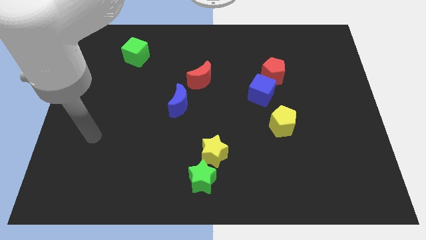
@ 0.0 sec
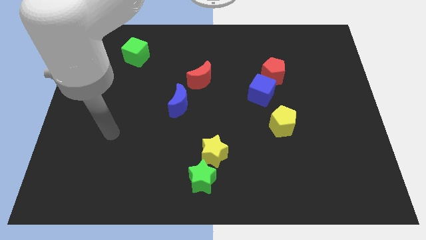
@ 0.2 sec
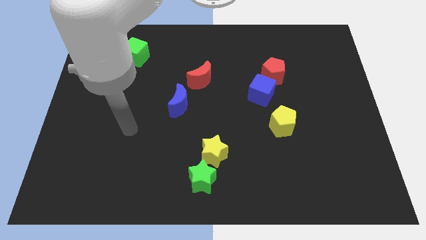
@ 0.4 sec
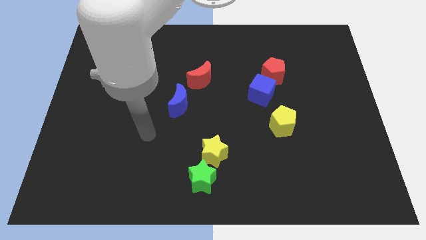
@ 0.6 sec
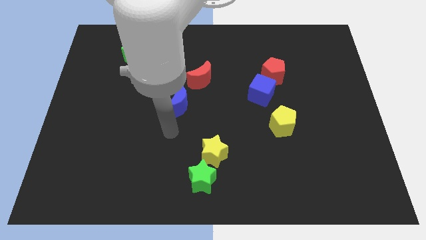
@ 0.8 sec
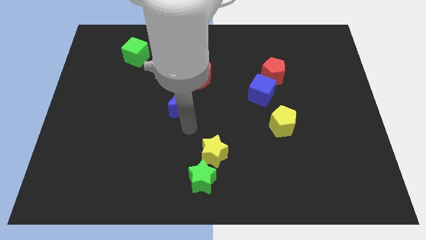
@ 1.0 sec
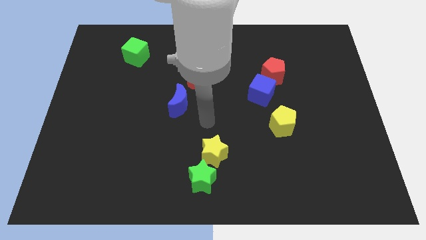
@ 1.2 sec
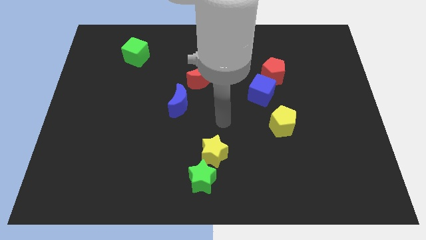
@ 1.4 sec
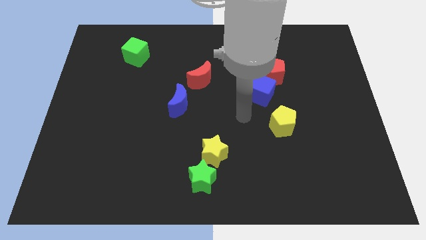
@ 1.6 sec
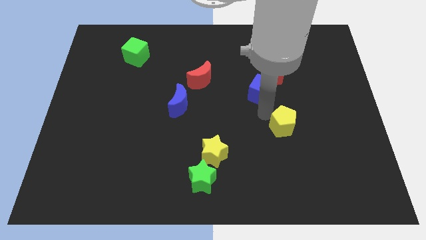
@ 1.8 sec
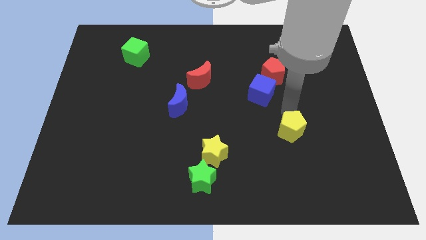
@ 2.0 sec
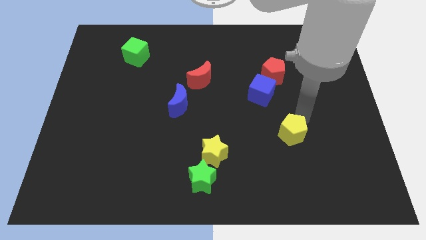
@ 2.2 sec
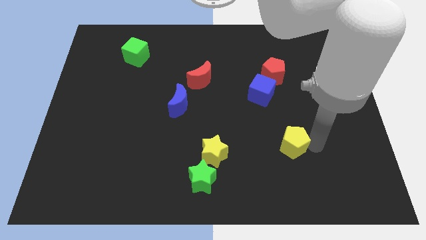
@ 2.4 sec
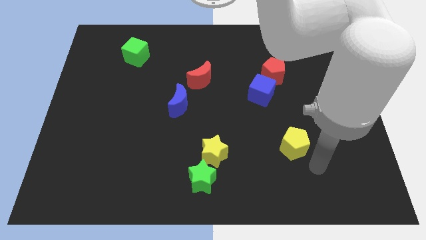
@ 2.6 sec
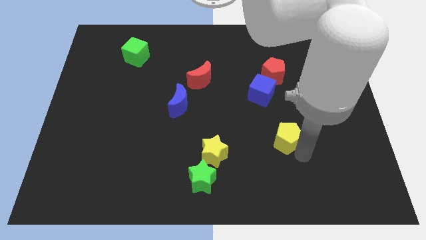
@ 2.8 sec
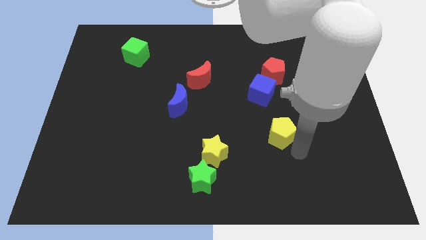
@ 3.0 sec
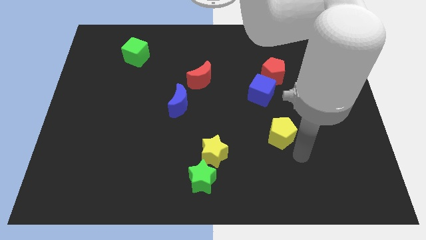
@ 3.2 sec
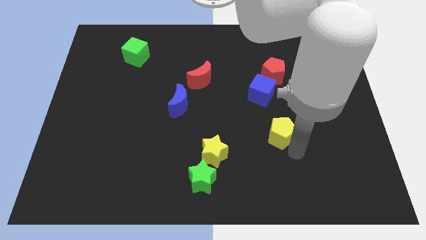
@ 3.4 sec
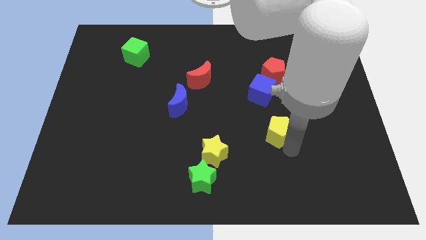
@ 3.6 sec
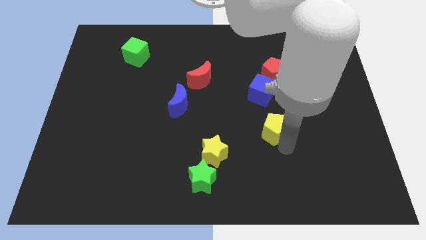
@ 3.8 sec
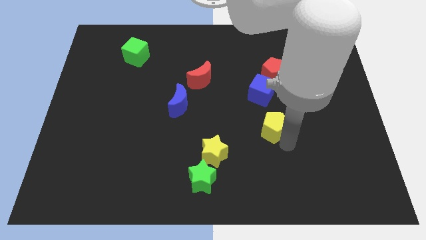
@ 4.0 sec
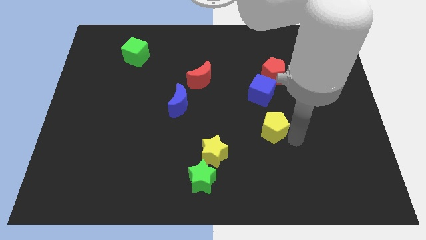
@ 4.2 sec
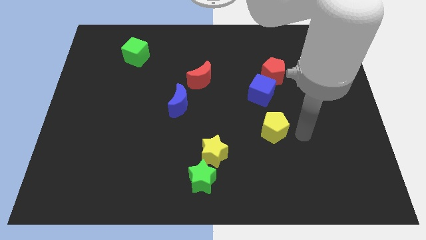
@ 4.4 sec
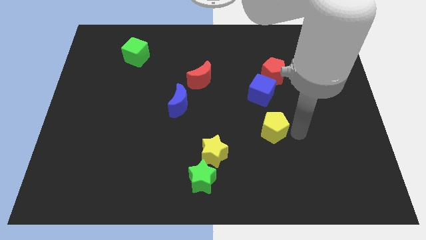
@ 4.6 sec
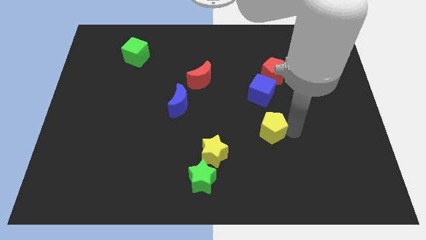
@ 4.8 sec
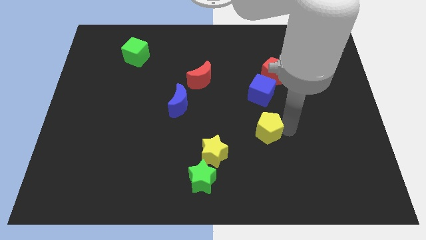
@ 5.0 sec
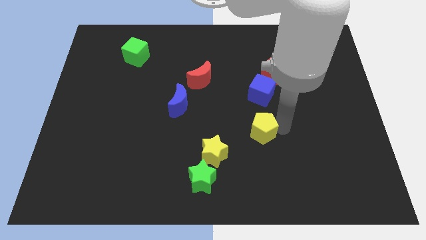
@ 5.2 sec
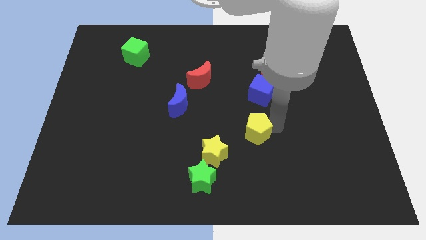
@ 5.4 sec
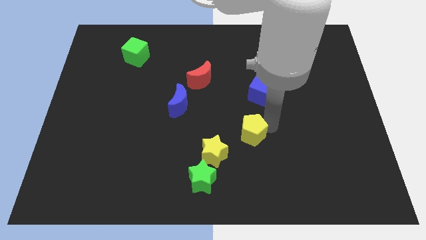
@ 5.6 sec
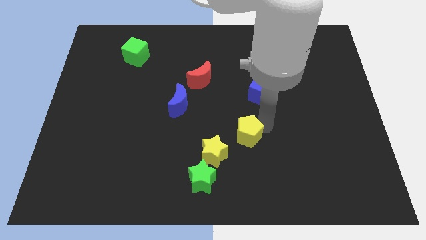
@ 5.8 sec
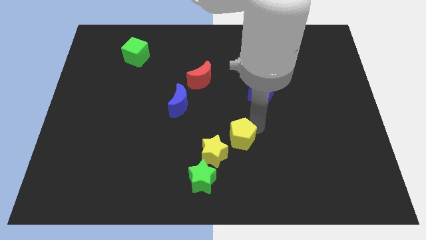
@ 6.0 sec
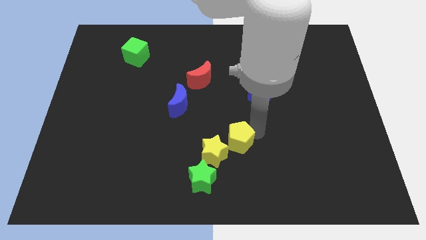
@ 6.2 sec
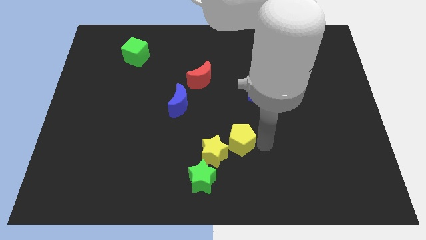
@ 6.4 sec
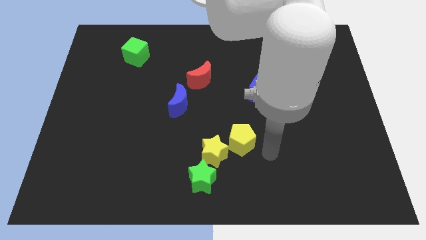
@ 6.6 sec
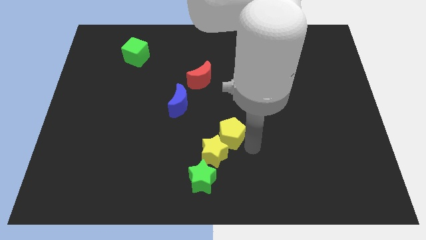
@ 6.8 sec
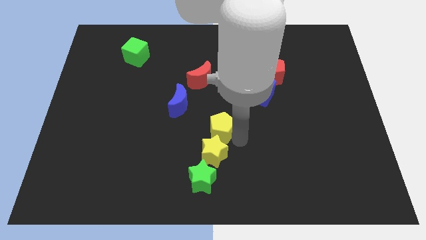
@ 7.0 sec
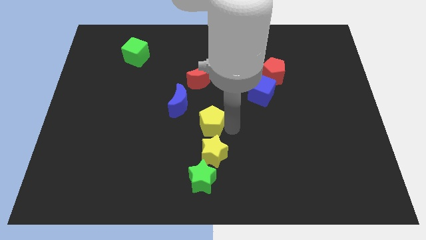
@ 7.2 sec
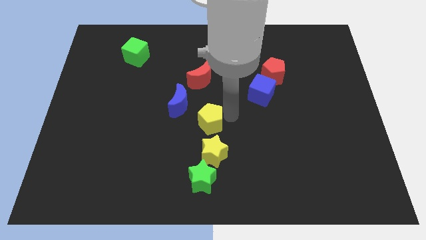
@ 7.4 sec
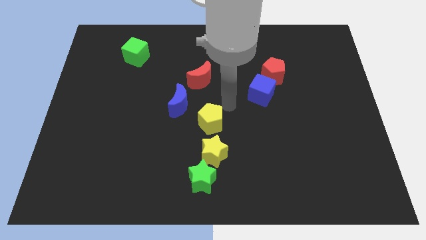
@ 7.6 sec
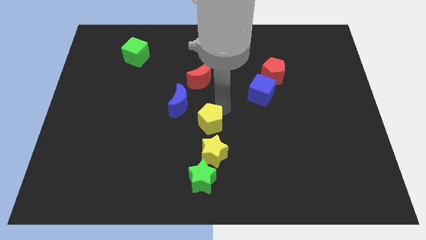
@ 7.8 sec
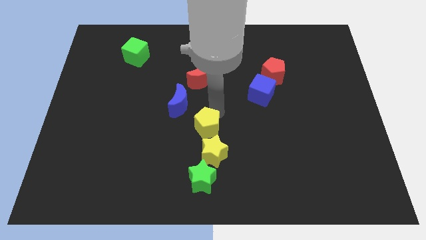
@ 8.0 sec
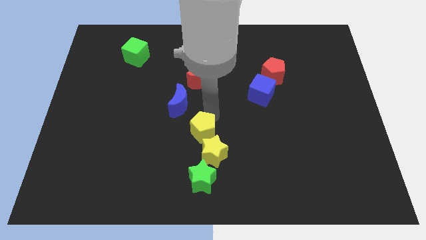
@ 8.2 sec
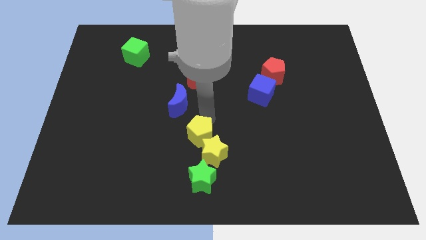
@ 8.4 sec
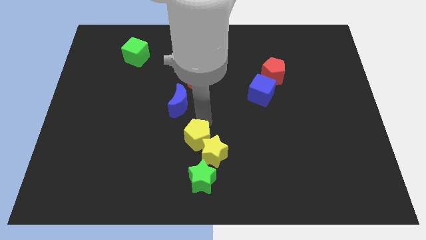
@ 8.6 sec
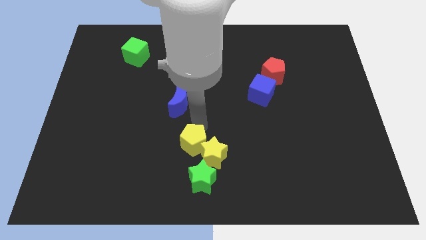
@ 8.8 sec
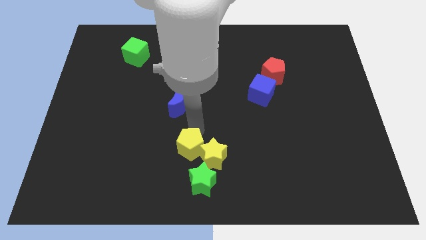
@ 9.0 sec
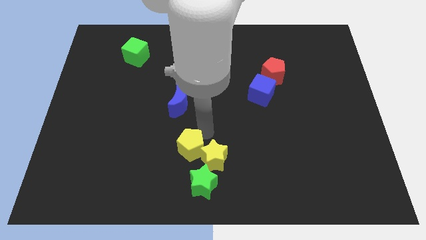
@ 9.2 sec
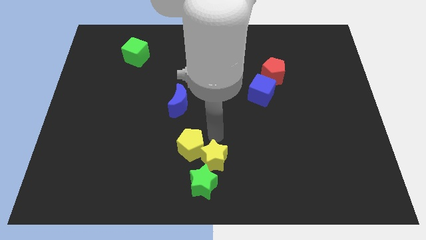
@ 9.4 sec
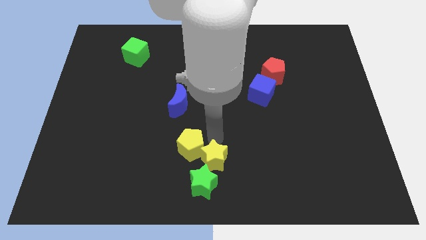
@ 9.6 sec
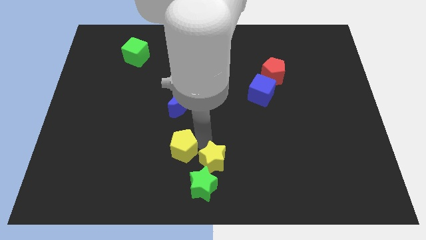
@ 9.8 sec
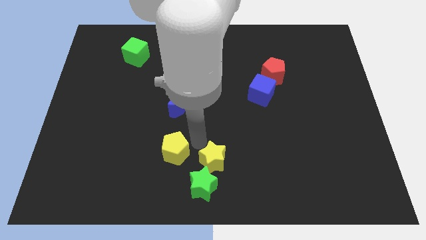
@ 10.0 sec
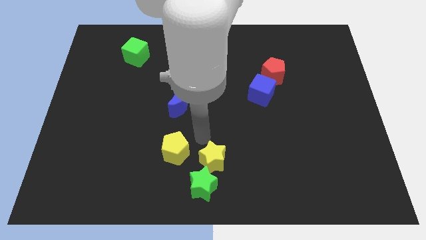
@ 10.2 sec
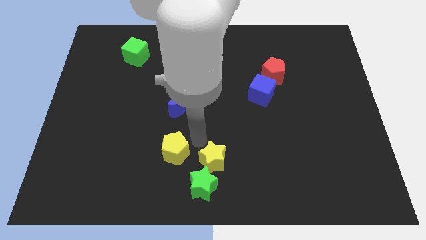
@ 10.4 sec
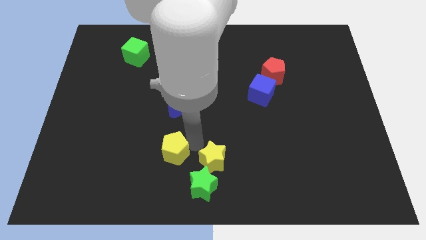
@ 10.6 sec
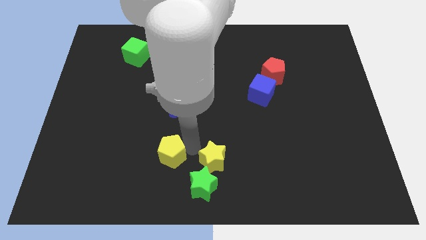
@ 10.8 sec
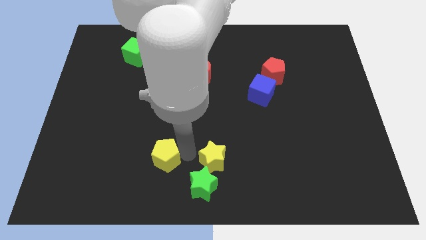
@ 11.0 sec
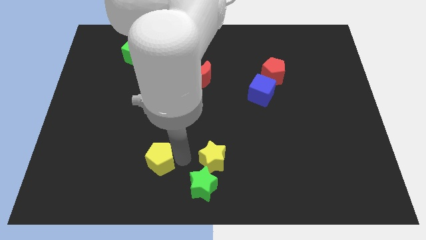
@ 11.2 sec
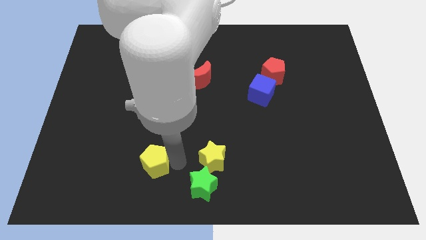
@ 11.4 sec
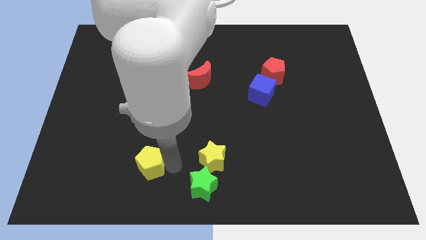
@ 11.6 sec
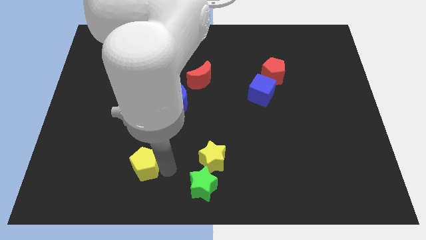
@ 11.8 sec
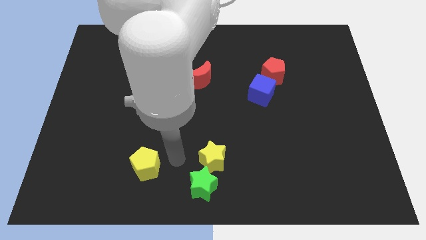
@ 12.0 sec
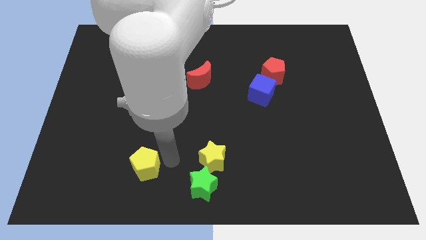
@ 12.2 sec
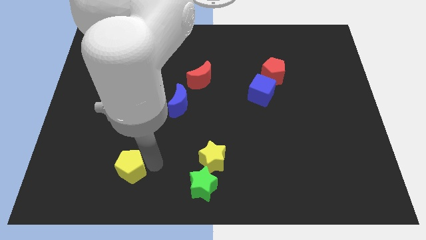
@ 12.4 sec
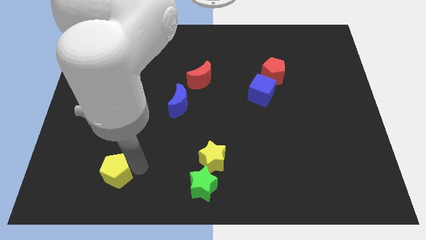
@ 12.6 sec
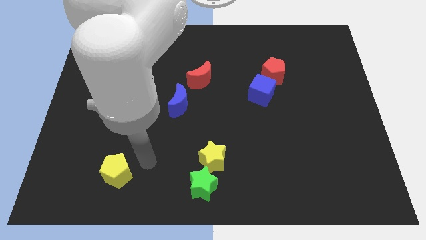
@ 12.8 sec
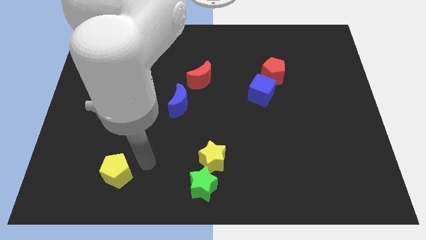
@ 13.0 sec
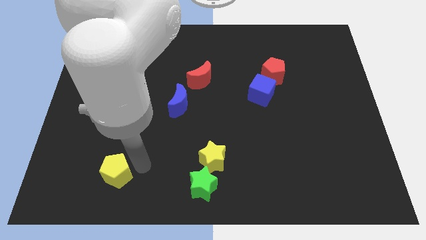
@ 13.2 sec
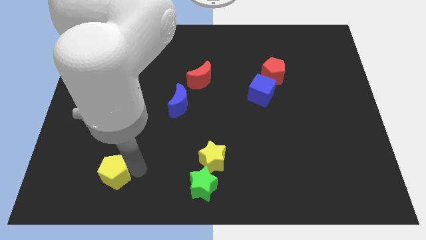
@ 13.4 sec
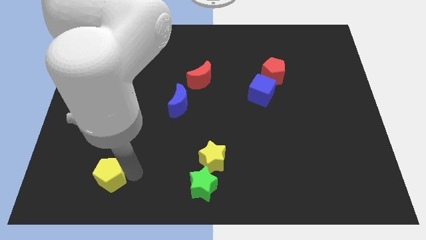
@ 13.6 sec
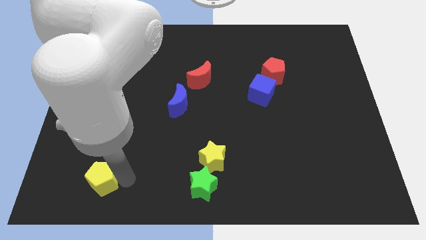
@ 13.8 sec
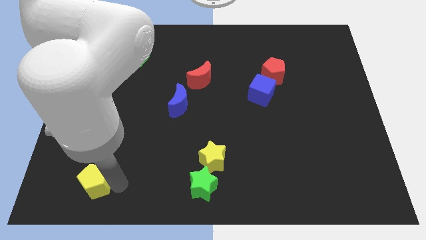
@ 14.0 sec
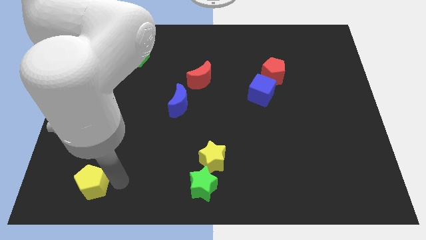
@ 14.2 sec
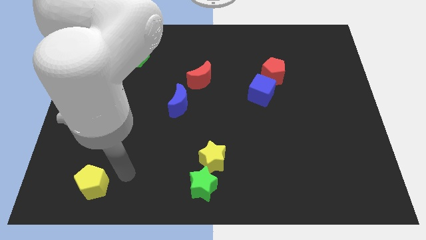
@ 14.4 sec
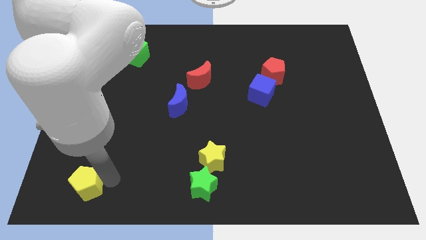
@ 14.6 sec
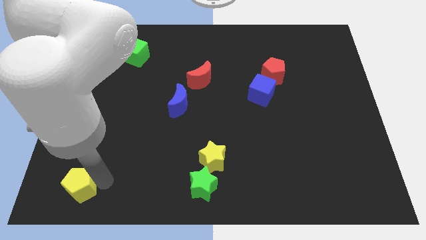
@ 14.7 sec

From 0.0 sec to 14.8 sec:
push the yellow pentagon to the lower left corner
